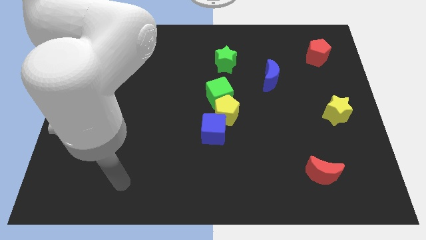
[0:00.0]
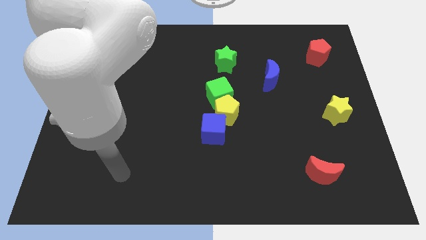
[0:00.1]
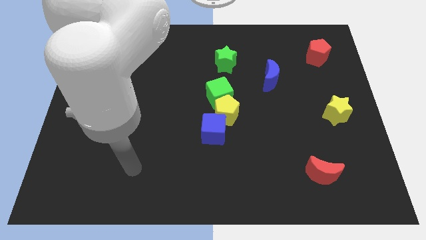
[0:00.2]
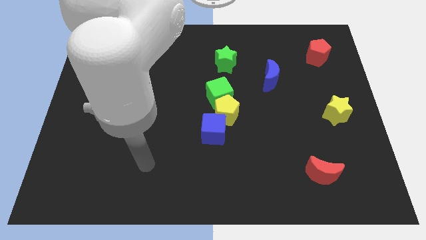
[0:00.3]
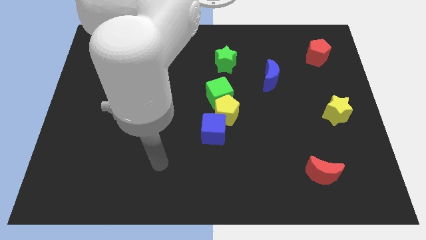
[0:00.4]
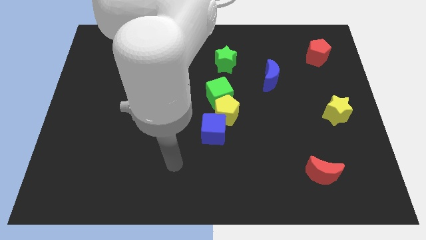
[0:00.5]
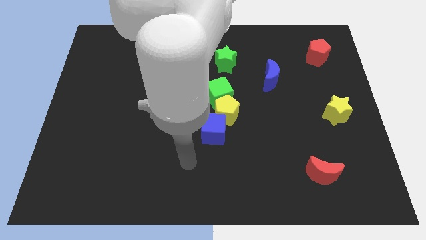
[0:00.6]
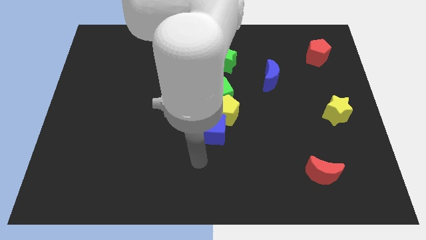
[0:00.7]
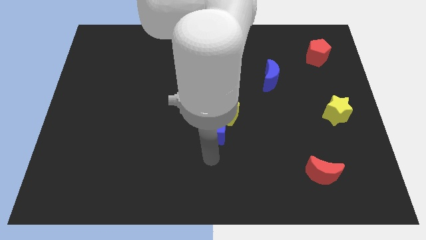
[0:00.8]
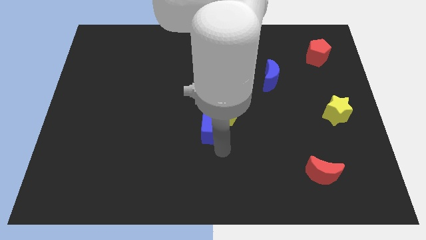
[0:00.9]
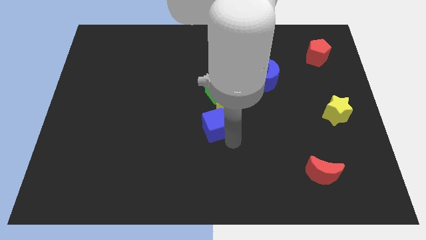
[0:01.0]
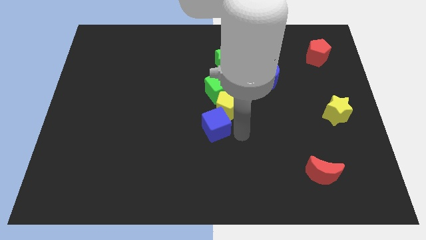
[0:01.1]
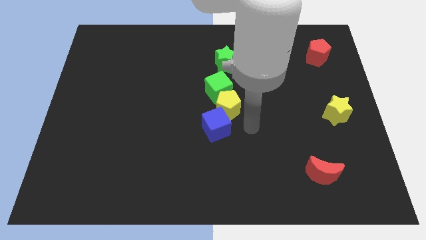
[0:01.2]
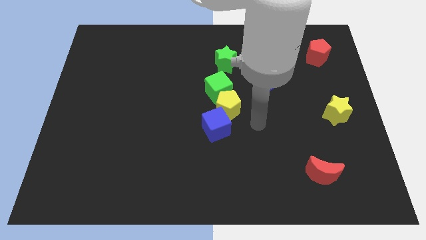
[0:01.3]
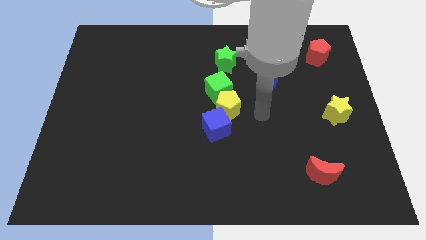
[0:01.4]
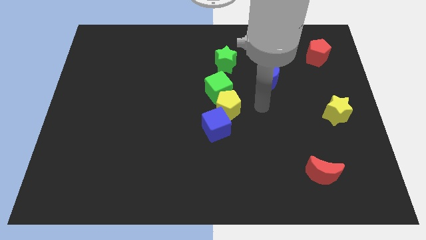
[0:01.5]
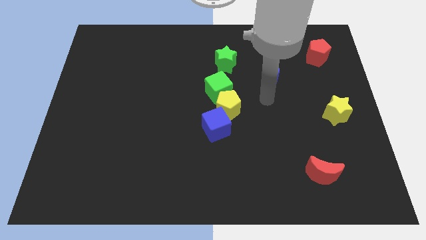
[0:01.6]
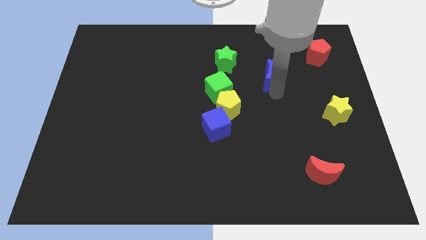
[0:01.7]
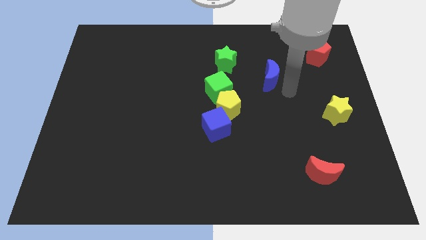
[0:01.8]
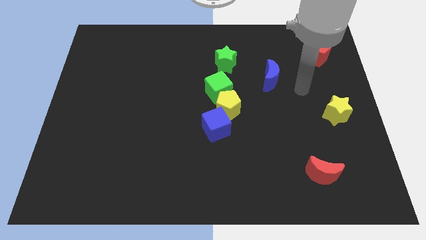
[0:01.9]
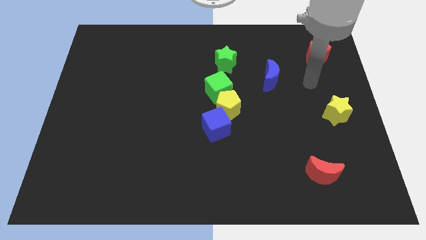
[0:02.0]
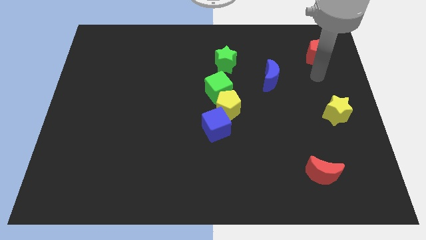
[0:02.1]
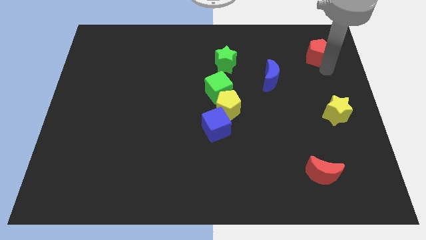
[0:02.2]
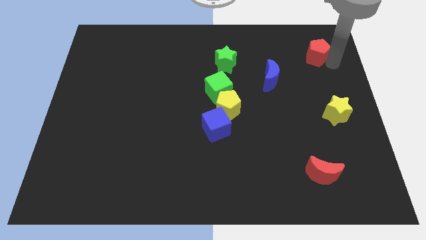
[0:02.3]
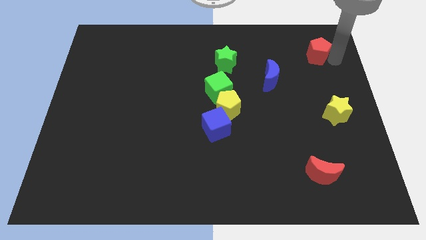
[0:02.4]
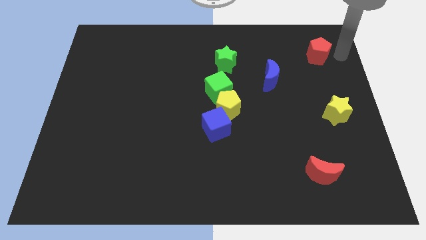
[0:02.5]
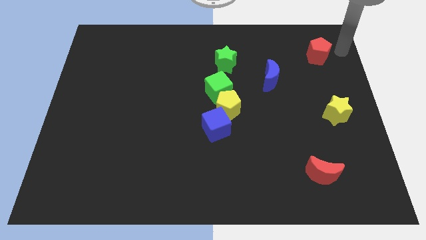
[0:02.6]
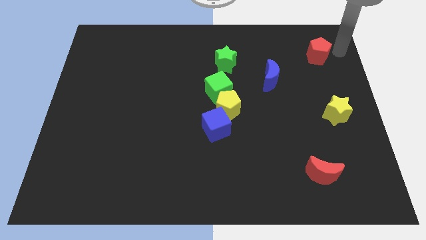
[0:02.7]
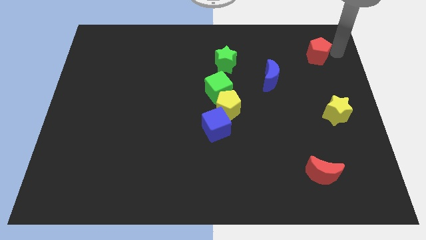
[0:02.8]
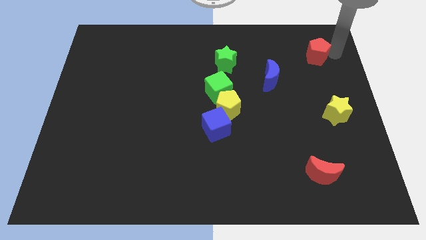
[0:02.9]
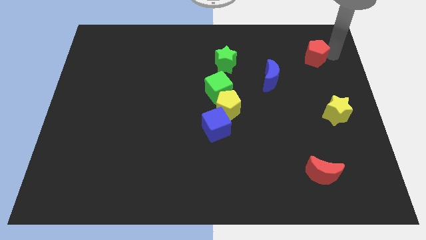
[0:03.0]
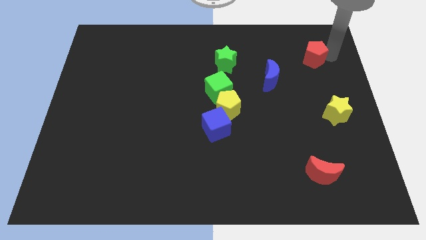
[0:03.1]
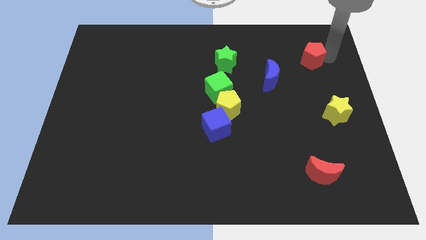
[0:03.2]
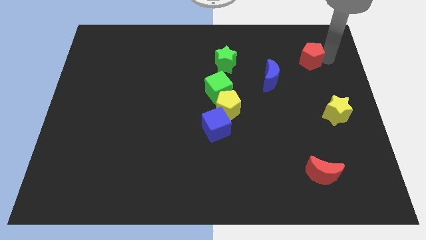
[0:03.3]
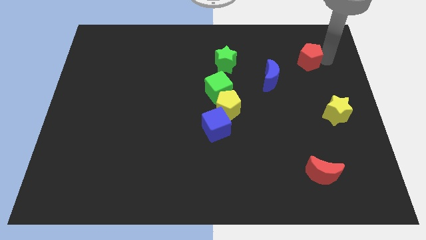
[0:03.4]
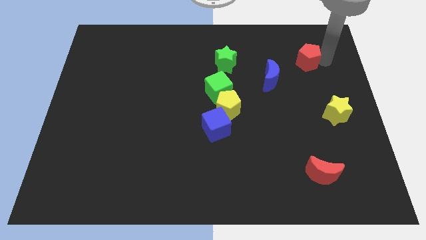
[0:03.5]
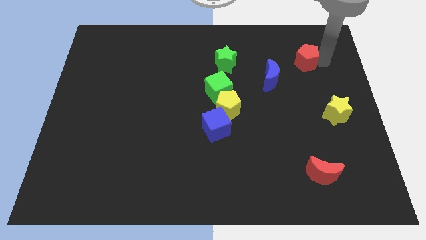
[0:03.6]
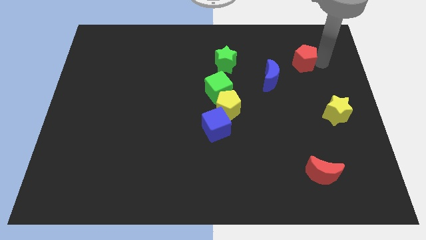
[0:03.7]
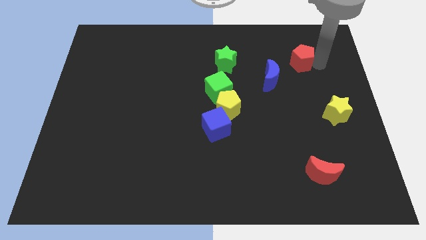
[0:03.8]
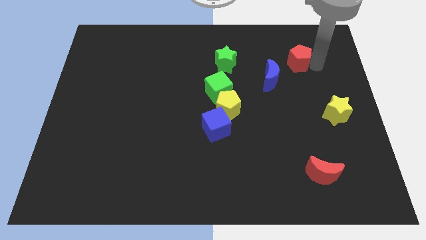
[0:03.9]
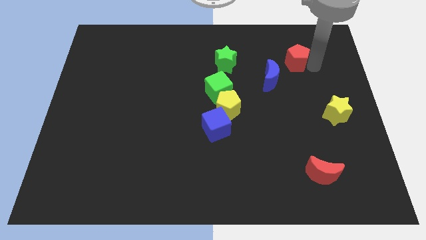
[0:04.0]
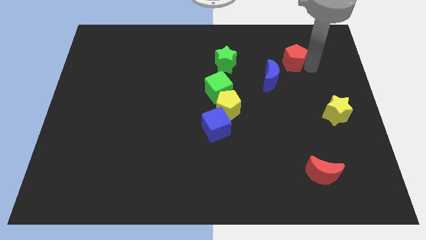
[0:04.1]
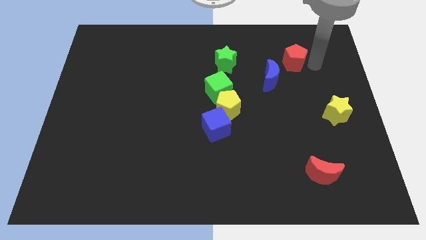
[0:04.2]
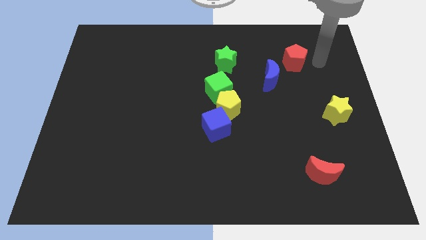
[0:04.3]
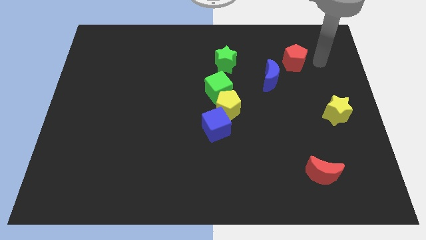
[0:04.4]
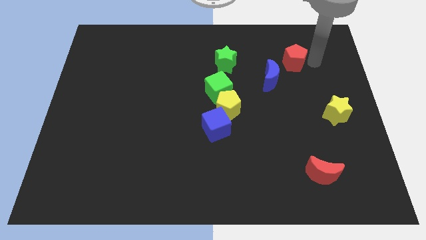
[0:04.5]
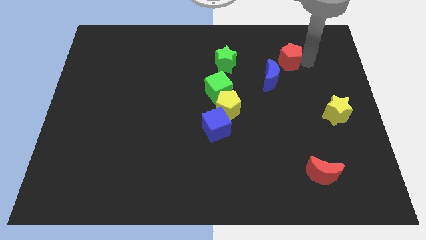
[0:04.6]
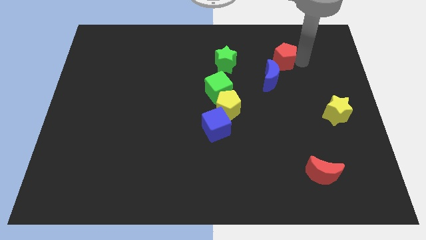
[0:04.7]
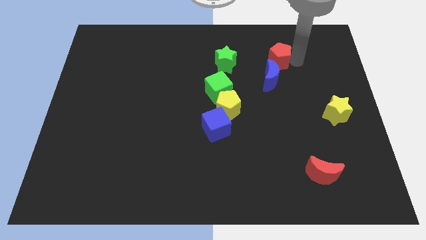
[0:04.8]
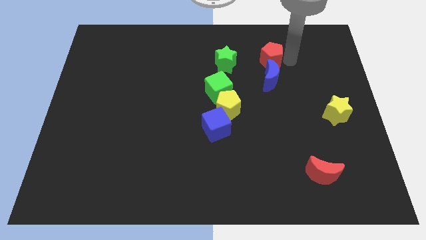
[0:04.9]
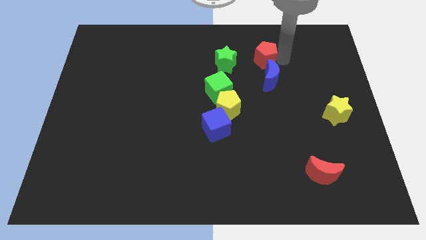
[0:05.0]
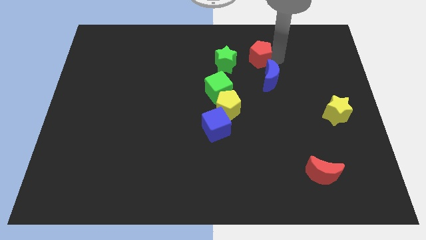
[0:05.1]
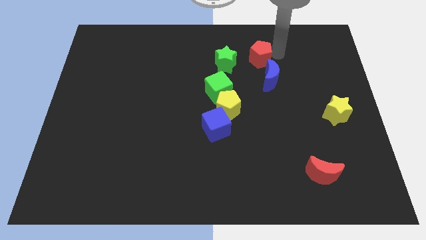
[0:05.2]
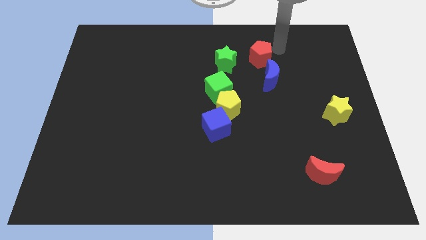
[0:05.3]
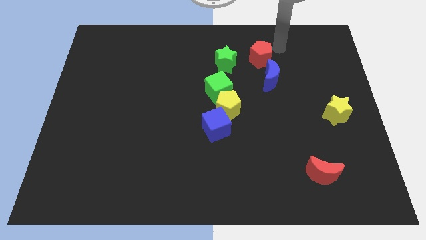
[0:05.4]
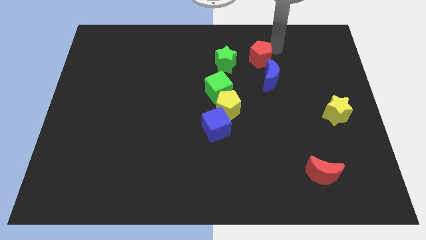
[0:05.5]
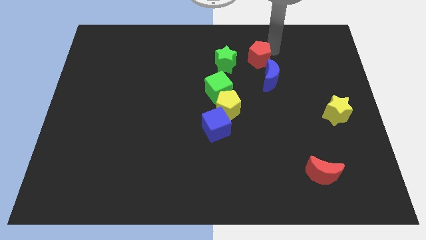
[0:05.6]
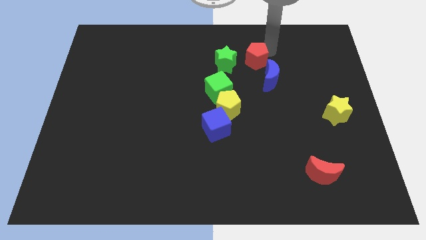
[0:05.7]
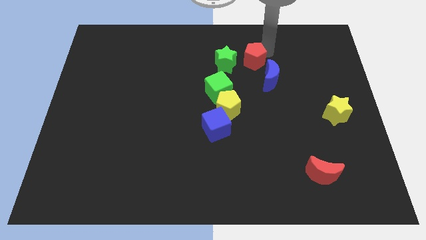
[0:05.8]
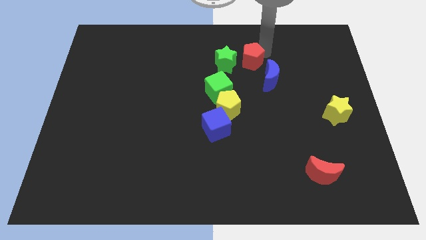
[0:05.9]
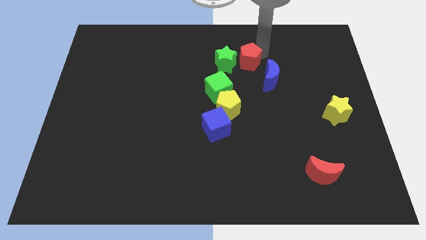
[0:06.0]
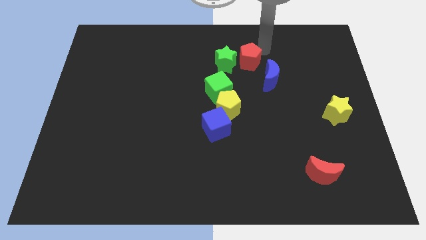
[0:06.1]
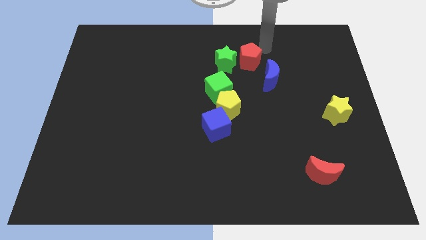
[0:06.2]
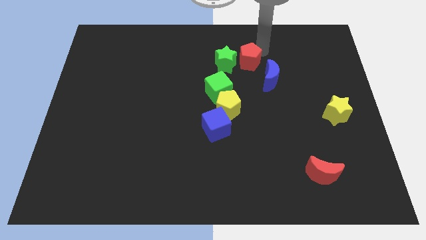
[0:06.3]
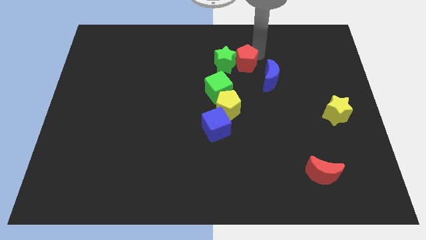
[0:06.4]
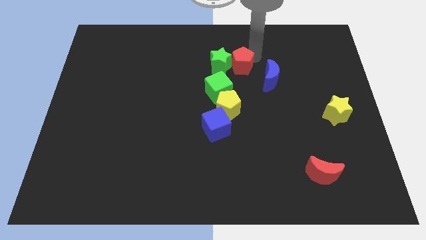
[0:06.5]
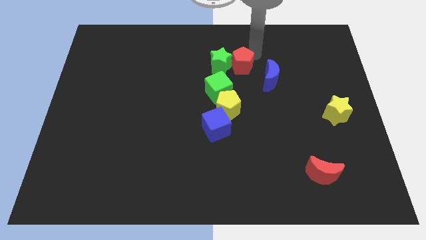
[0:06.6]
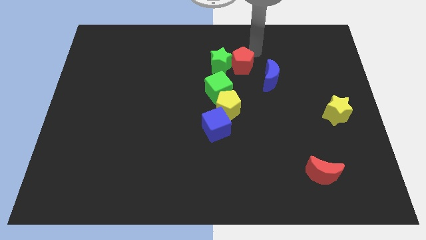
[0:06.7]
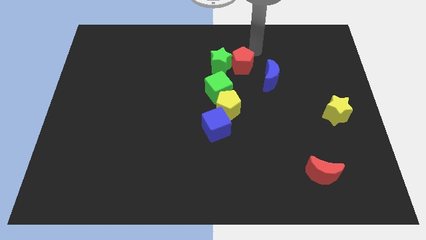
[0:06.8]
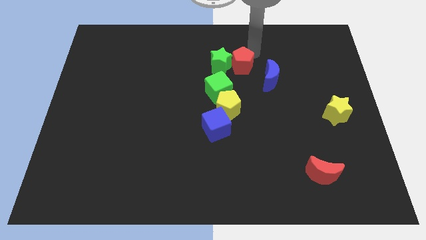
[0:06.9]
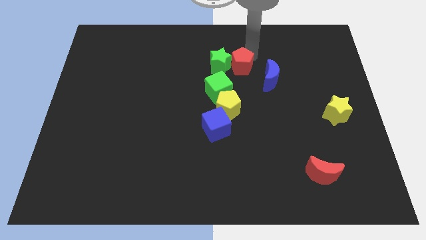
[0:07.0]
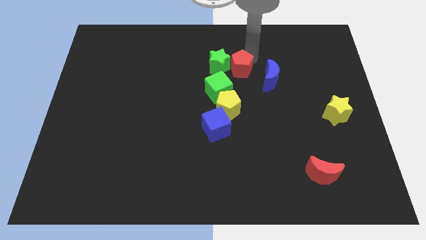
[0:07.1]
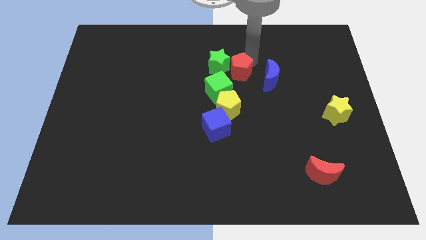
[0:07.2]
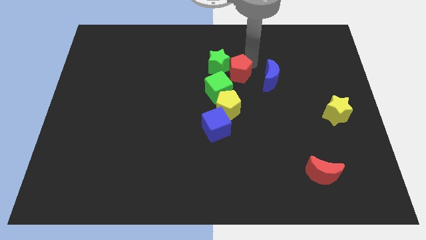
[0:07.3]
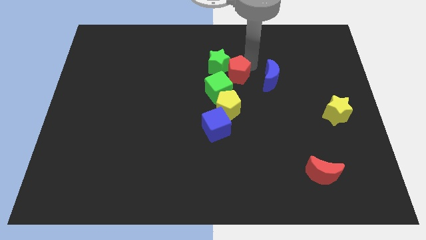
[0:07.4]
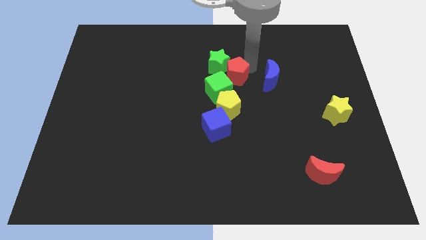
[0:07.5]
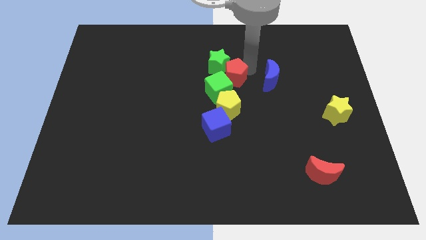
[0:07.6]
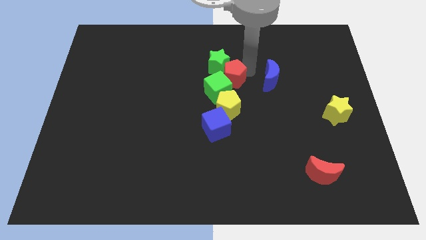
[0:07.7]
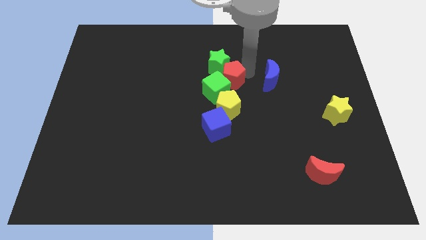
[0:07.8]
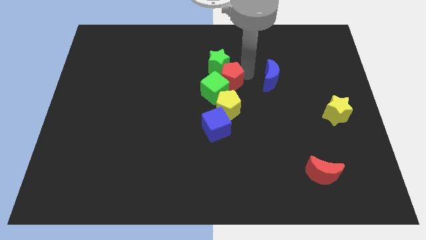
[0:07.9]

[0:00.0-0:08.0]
put the red pentagon above the blue cube
